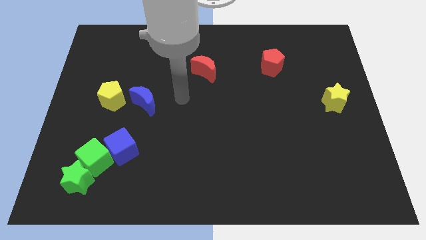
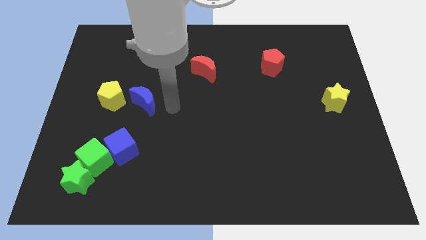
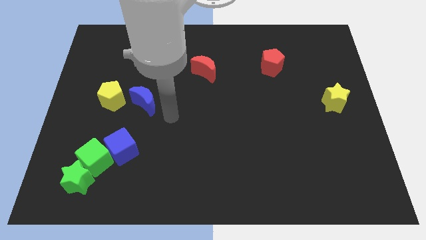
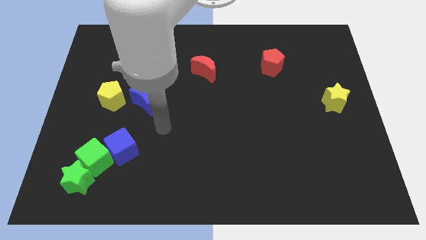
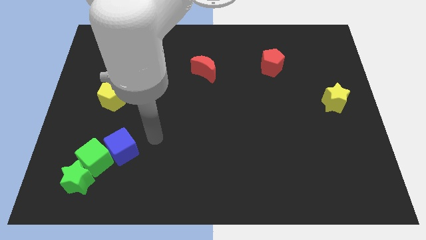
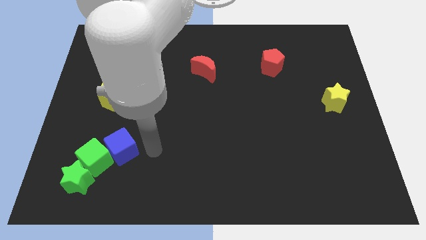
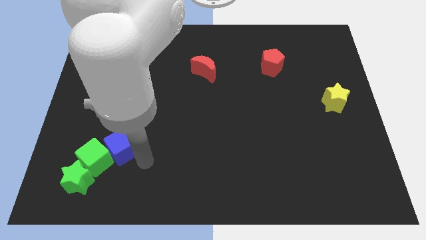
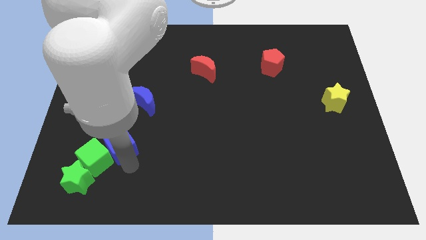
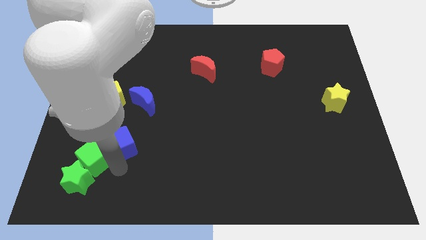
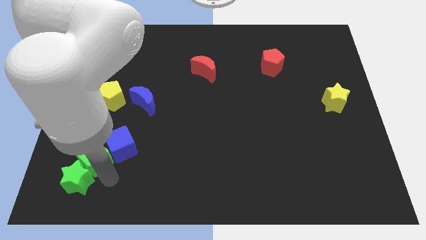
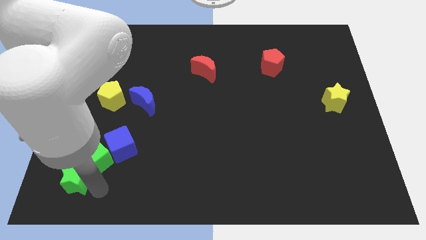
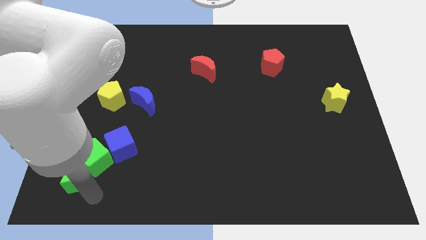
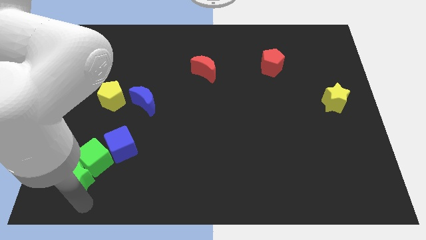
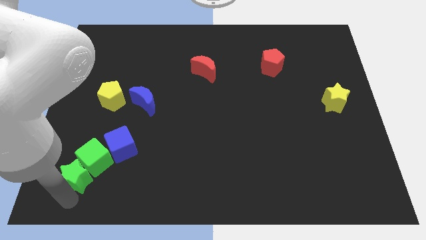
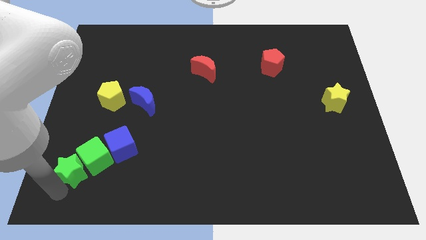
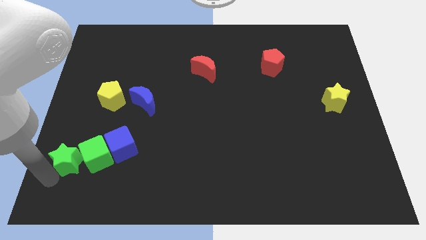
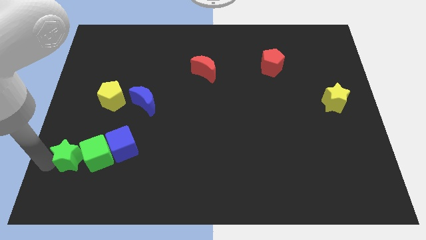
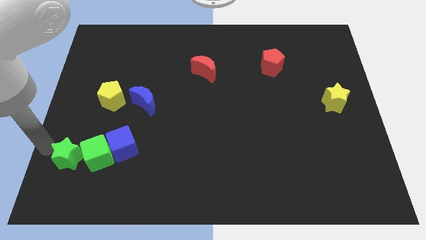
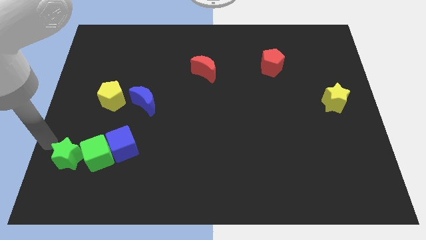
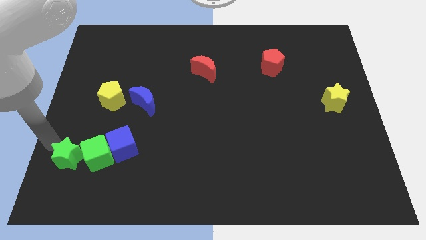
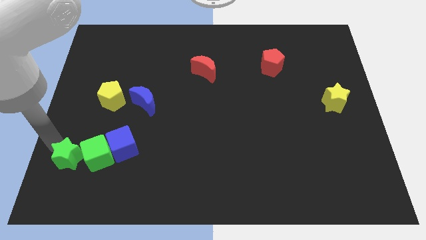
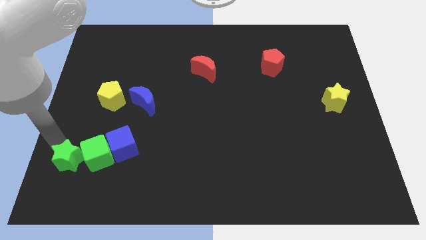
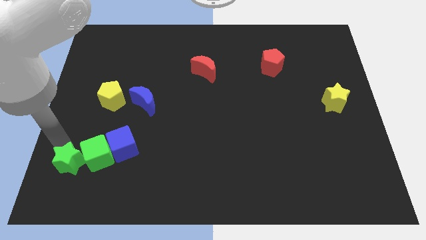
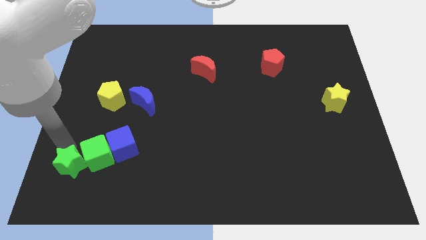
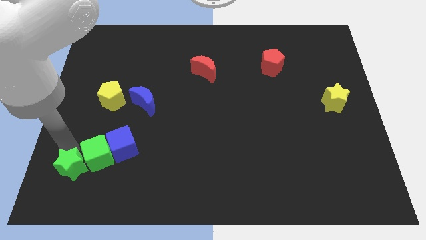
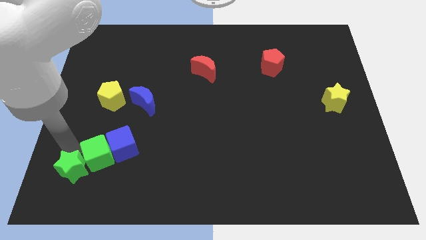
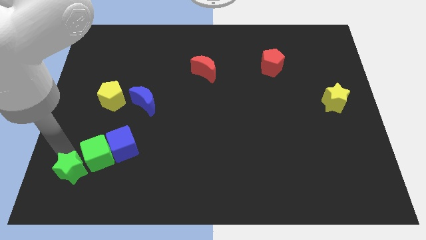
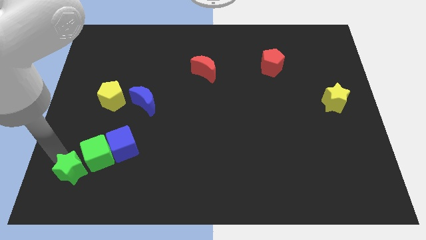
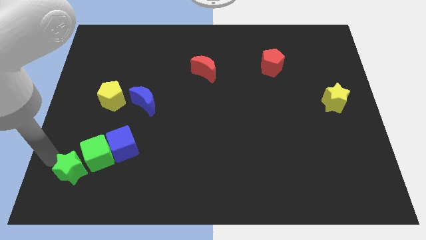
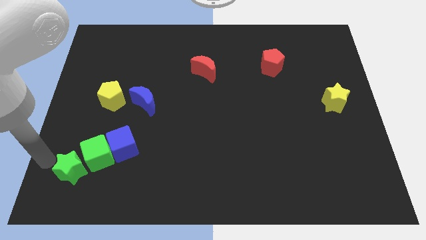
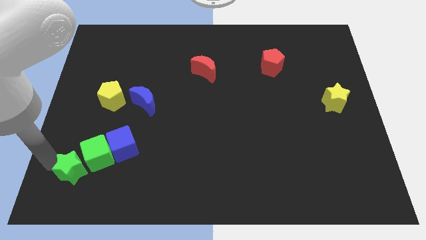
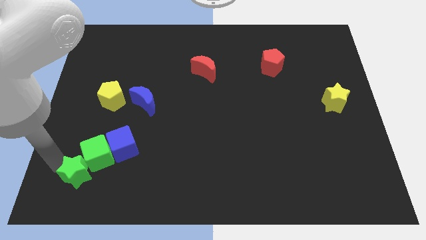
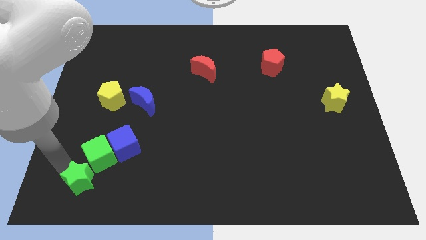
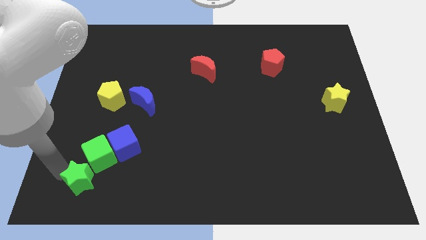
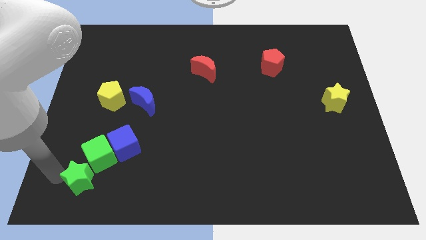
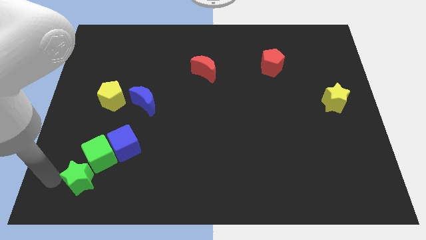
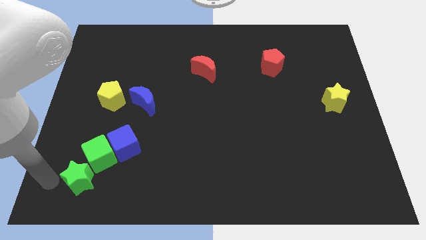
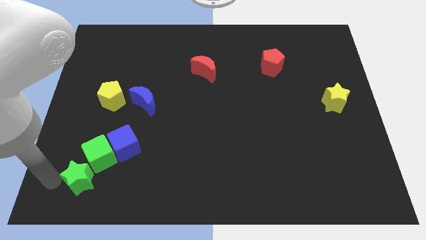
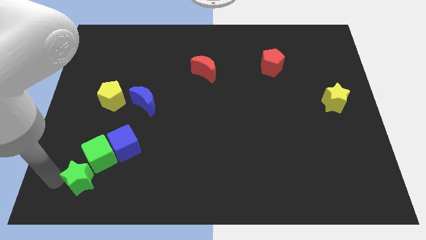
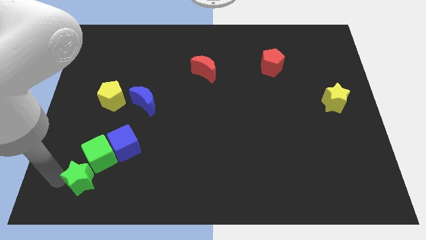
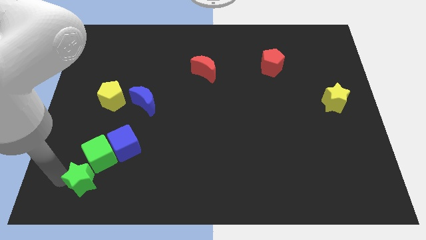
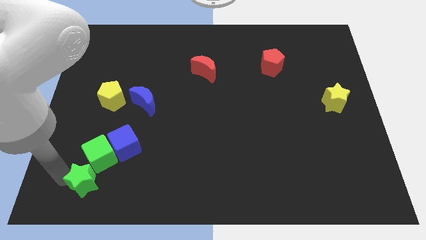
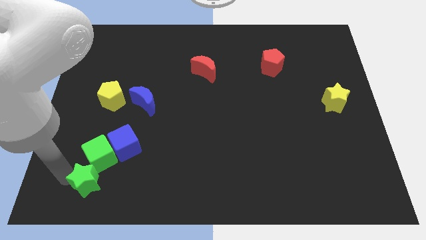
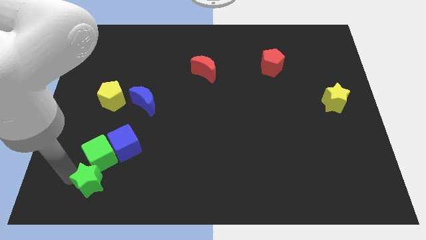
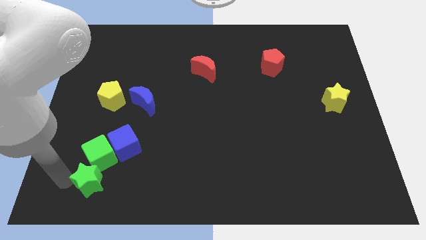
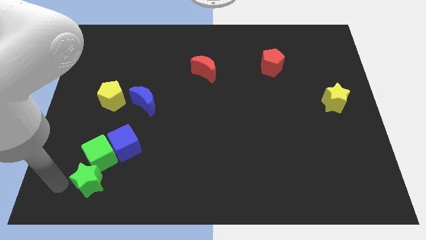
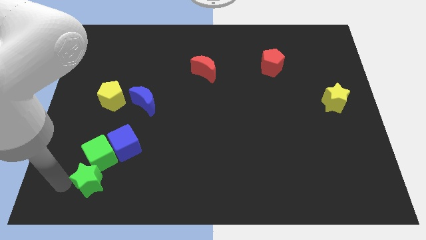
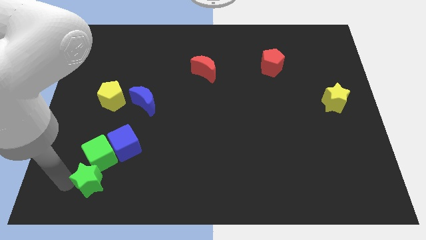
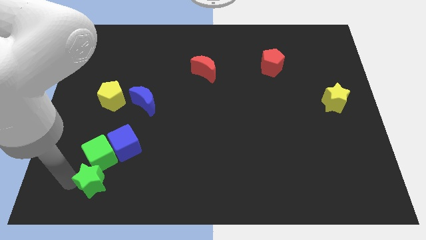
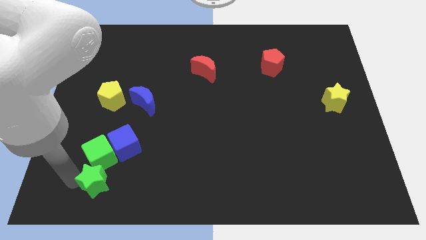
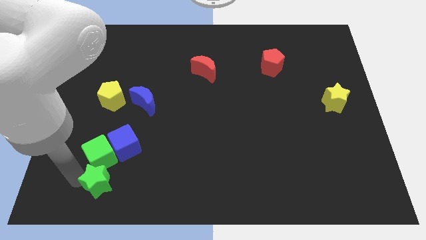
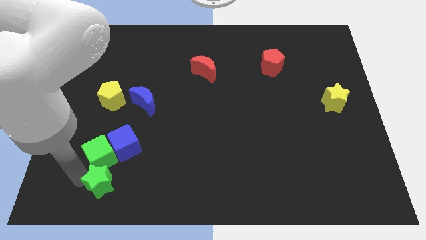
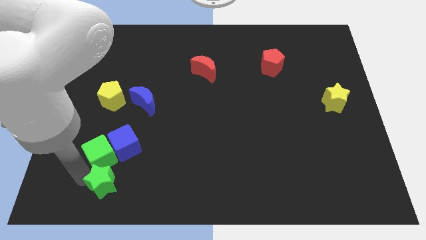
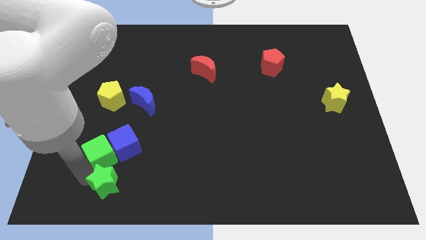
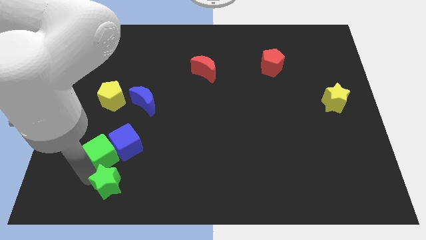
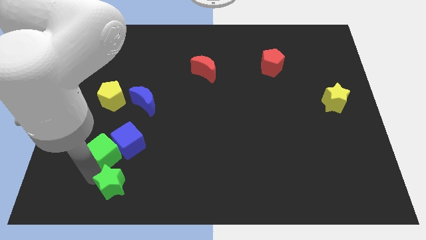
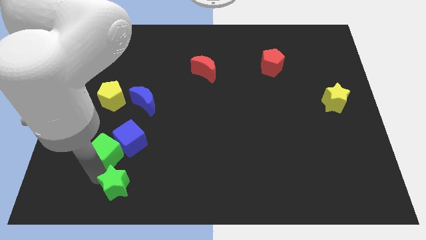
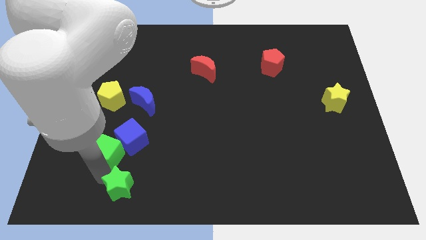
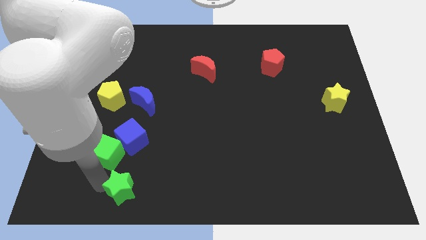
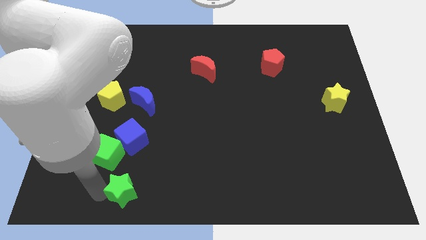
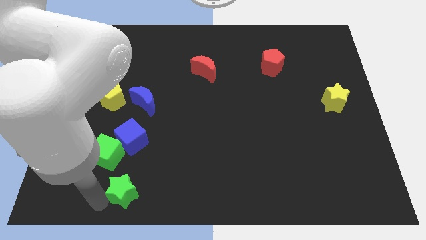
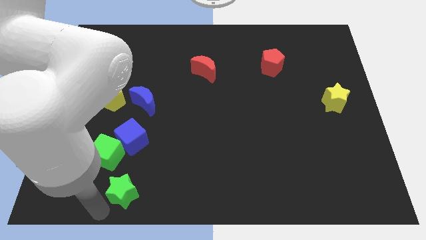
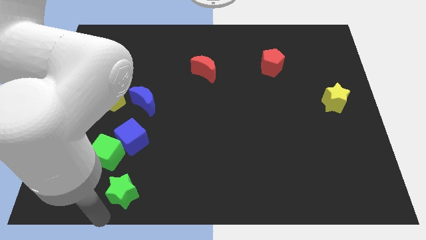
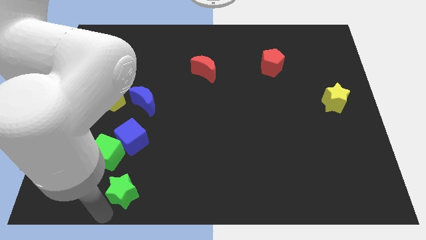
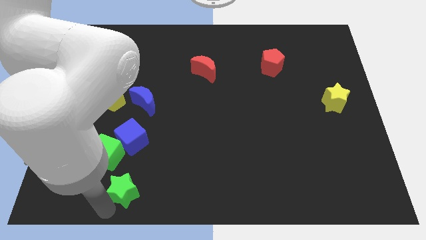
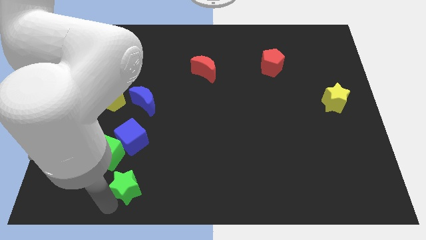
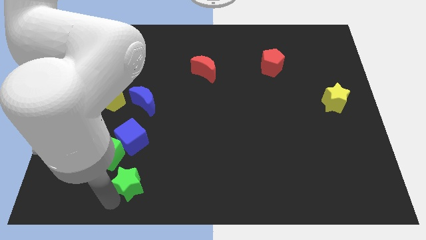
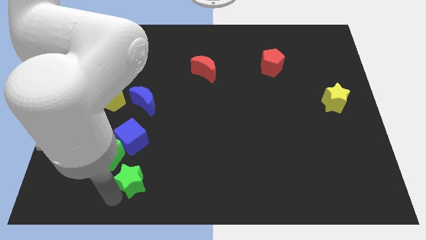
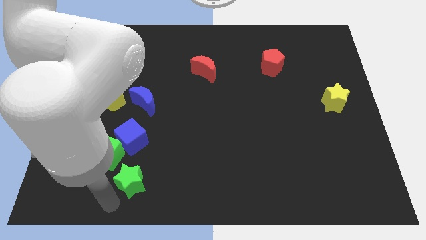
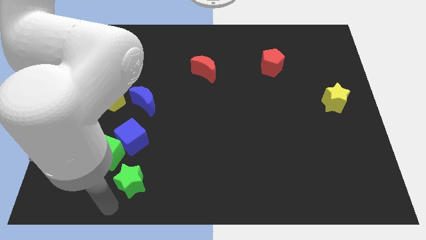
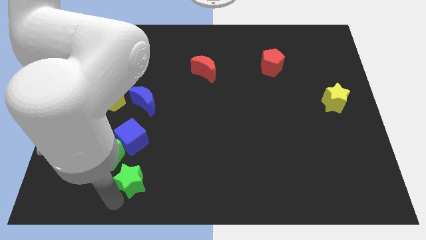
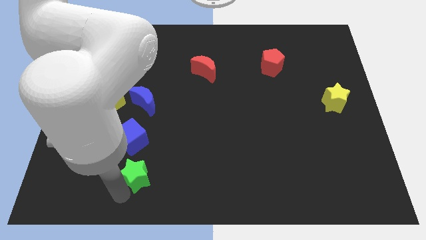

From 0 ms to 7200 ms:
slide the green star to the bottom right of the blue cube

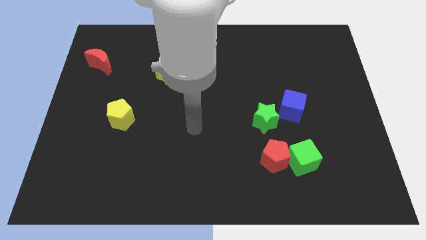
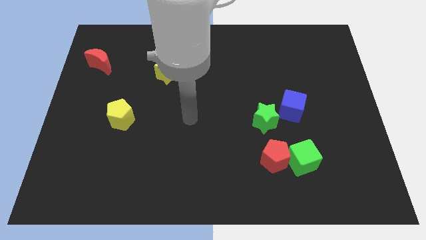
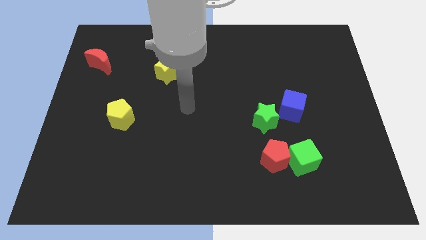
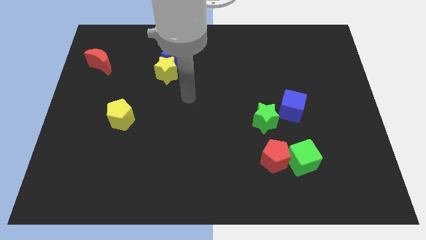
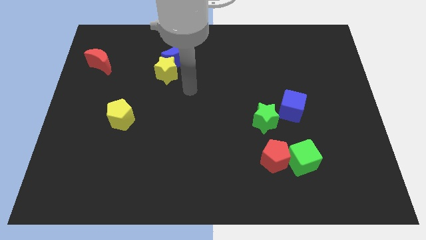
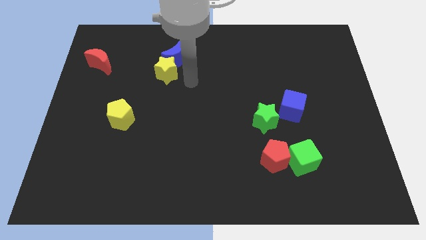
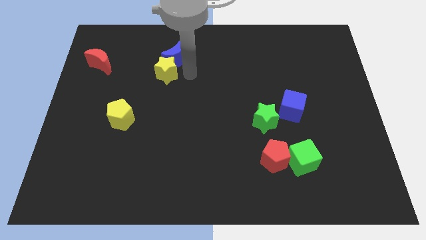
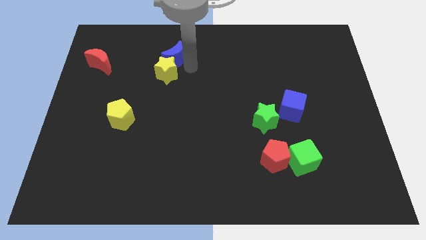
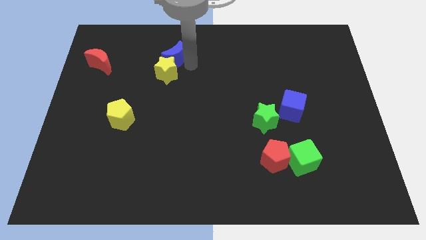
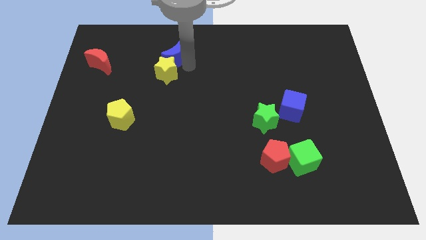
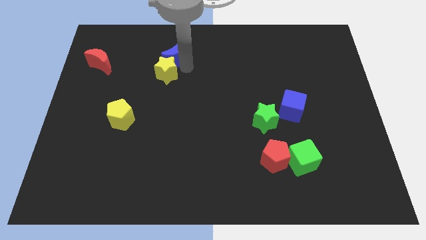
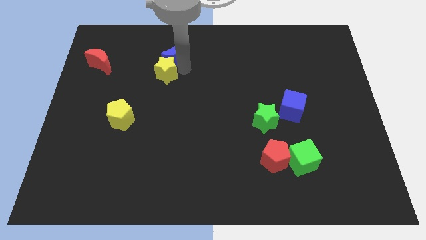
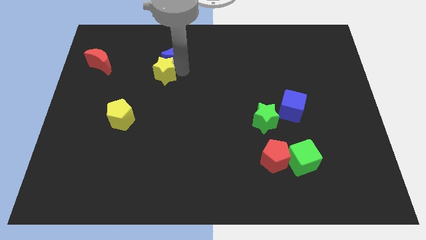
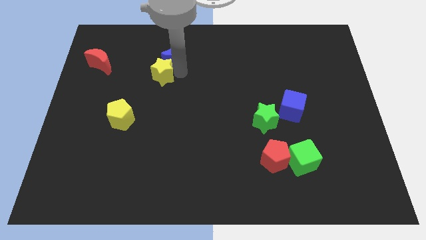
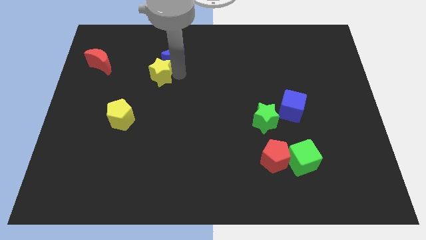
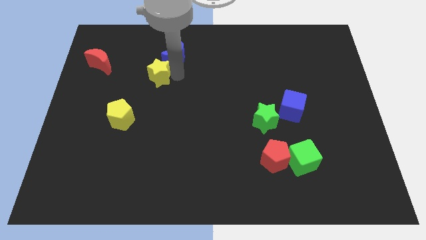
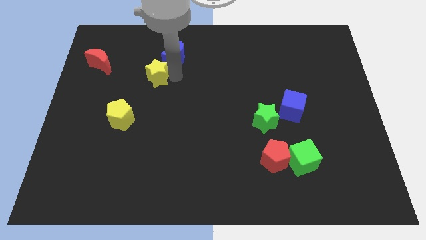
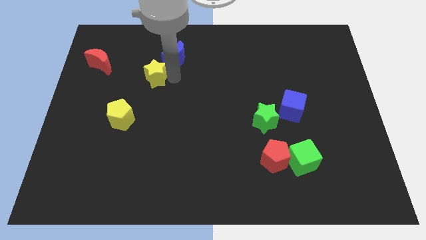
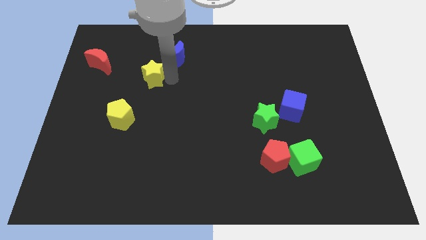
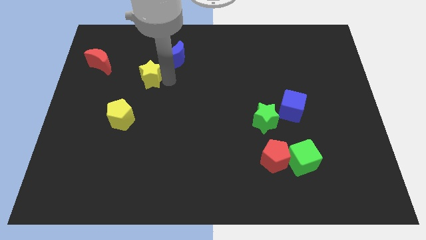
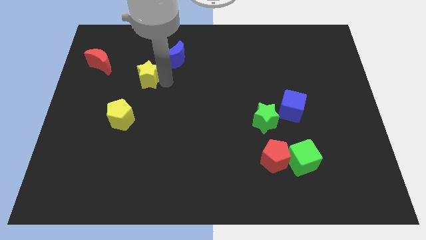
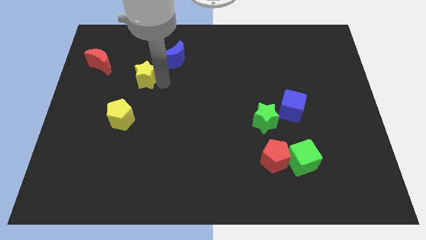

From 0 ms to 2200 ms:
slide the yellow star to the top side of the yellow pentagon
